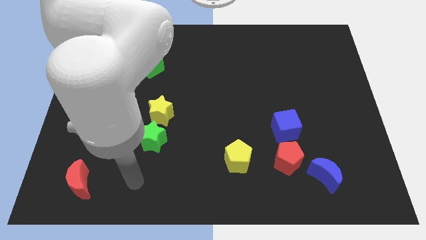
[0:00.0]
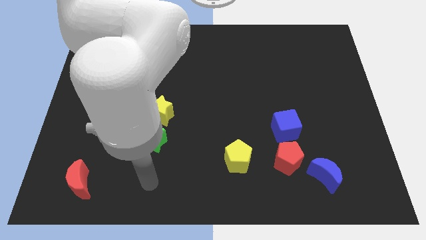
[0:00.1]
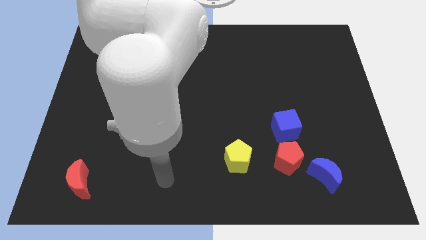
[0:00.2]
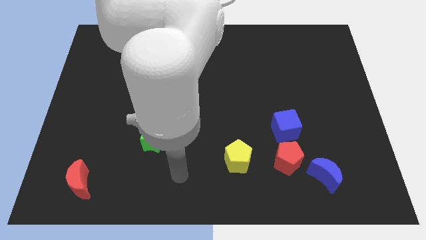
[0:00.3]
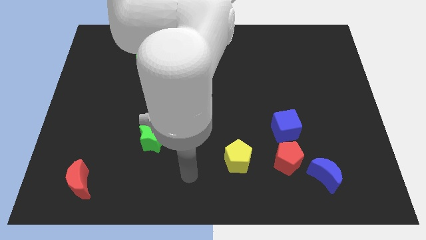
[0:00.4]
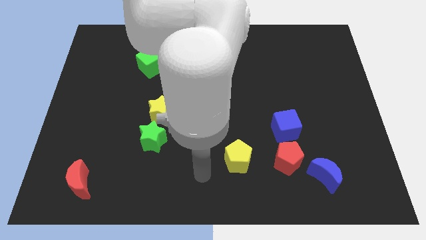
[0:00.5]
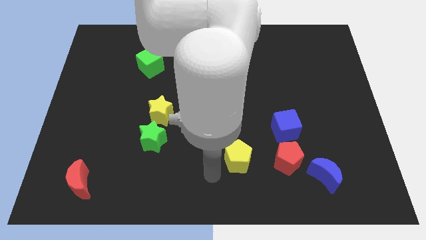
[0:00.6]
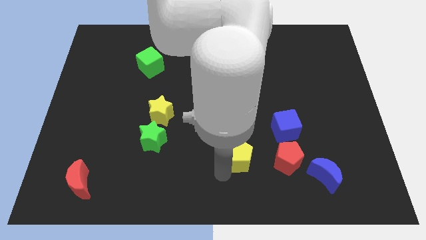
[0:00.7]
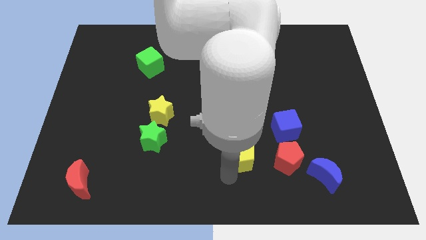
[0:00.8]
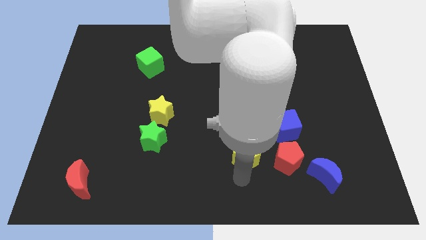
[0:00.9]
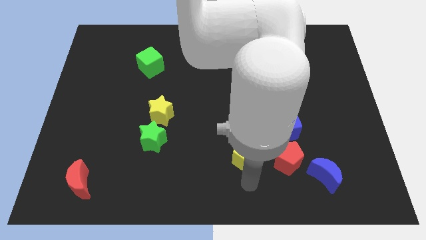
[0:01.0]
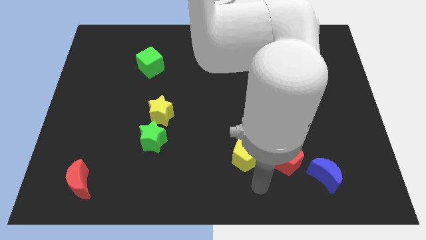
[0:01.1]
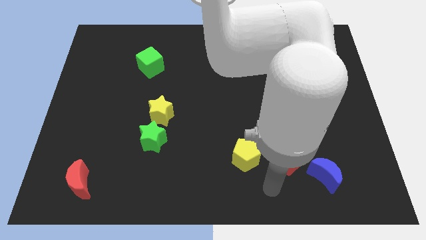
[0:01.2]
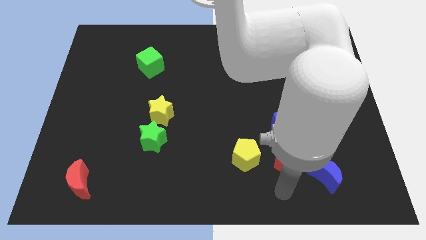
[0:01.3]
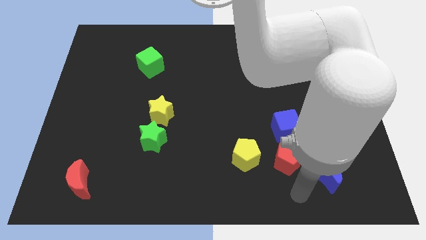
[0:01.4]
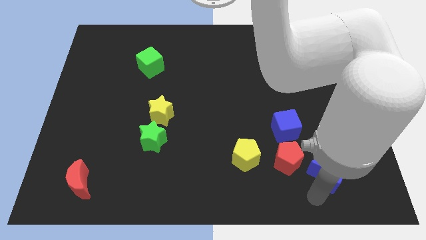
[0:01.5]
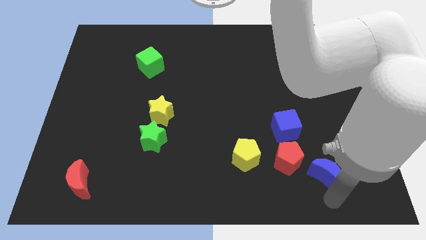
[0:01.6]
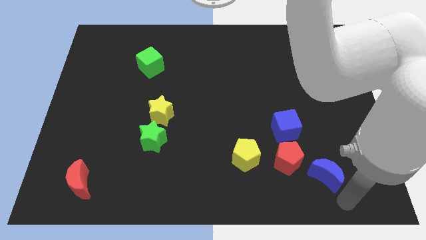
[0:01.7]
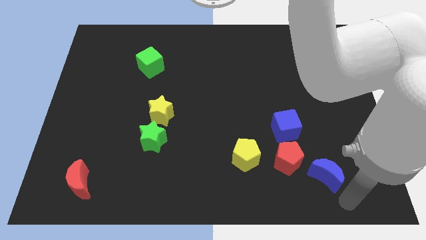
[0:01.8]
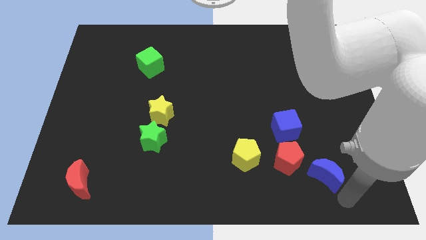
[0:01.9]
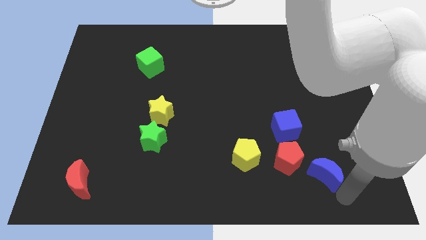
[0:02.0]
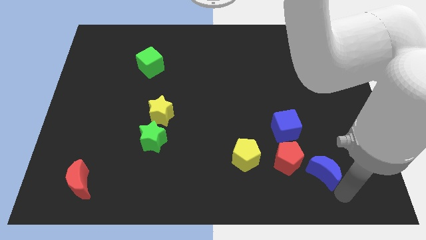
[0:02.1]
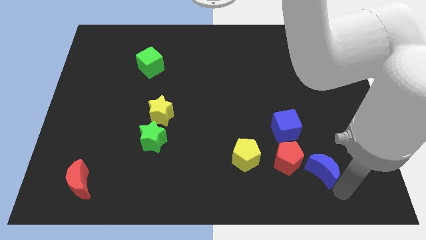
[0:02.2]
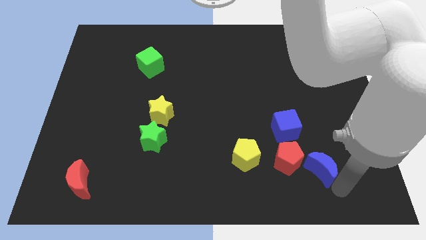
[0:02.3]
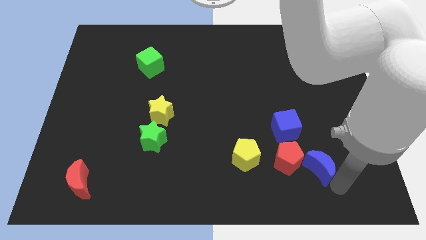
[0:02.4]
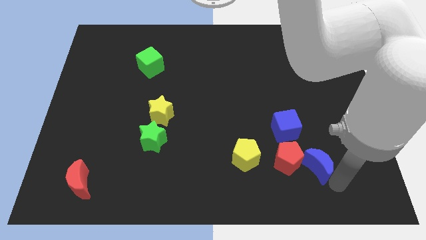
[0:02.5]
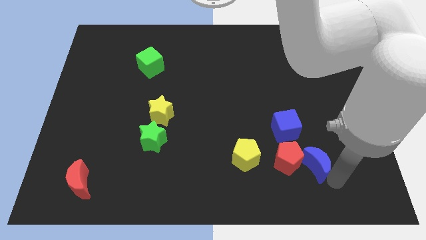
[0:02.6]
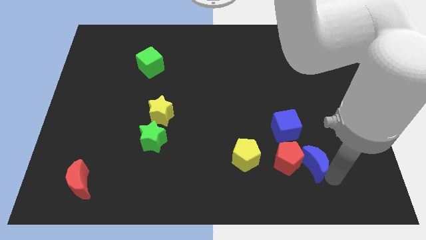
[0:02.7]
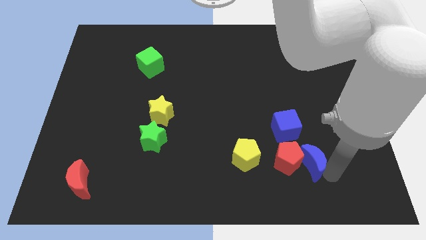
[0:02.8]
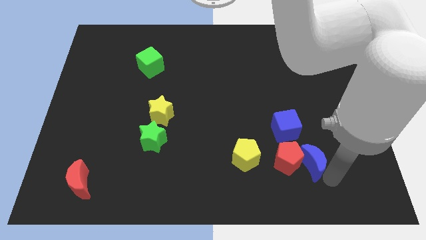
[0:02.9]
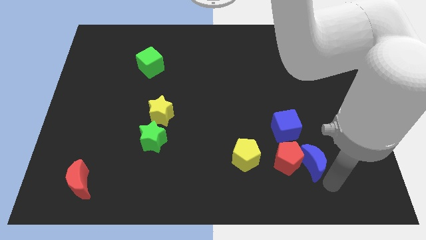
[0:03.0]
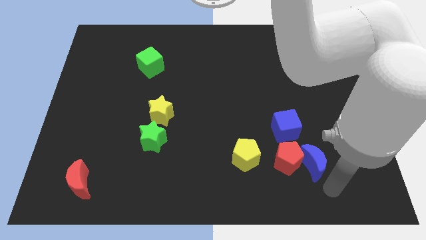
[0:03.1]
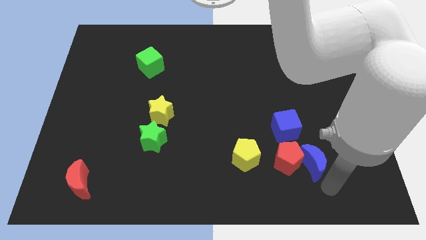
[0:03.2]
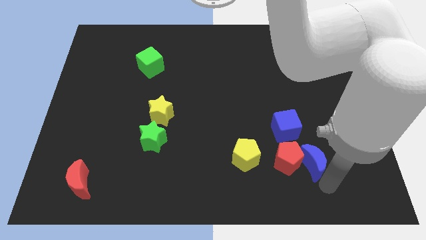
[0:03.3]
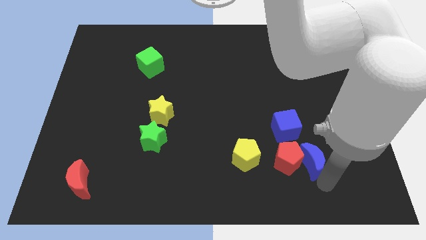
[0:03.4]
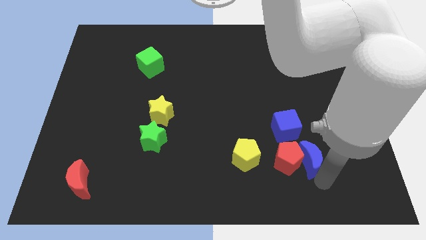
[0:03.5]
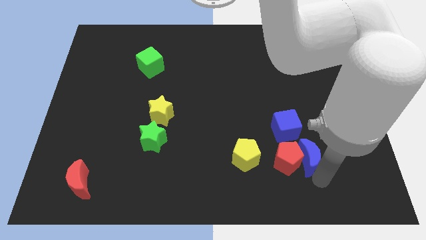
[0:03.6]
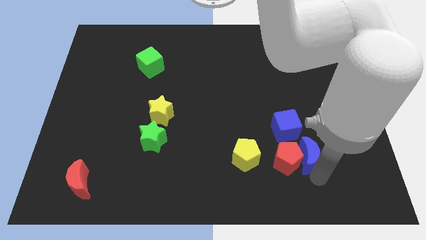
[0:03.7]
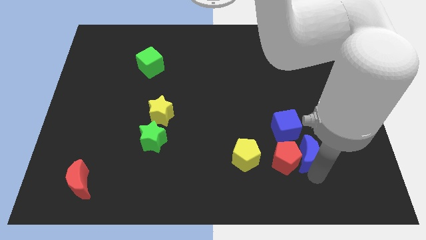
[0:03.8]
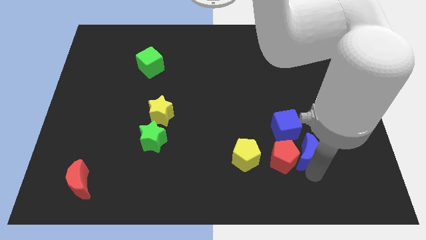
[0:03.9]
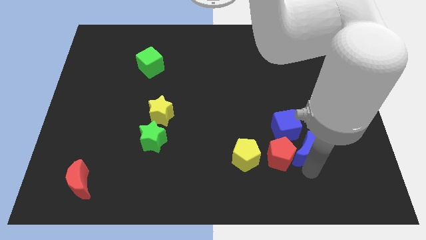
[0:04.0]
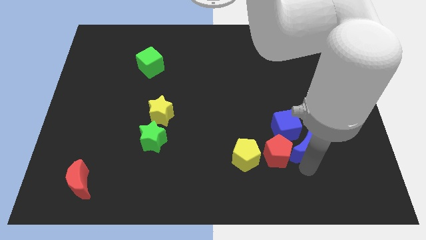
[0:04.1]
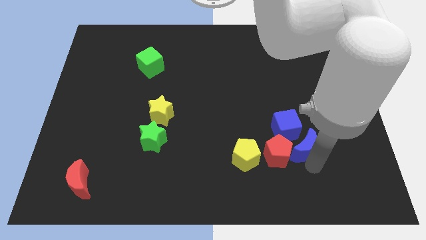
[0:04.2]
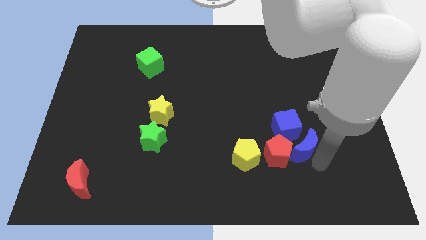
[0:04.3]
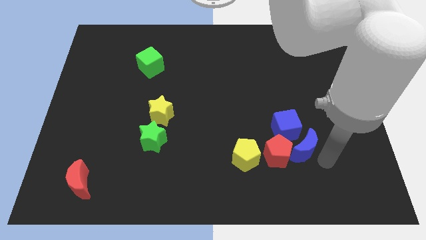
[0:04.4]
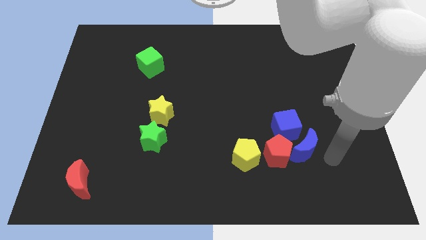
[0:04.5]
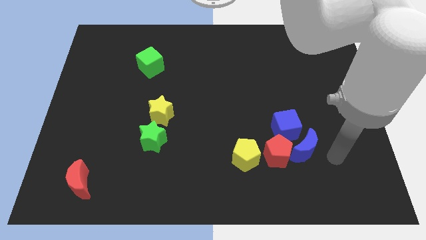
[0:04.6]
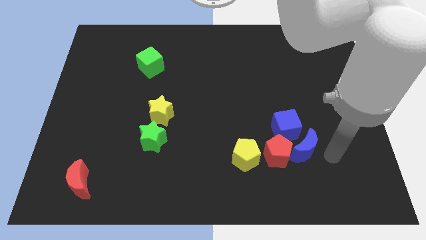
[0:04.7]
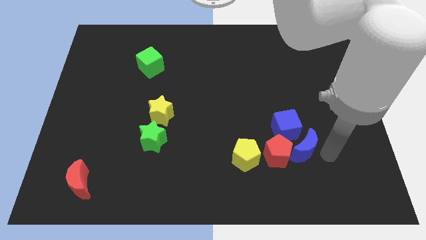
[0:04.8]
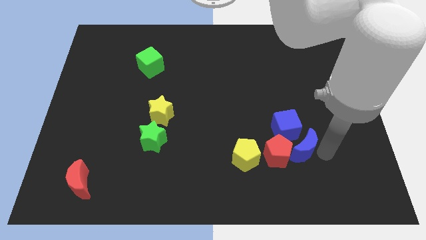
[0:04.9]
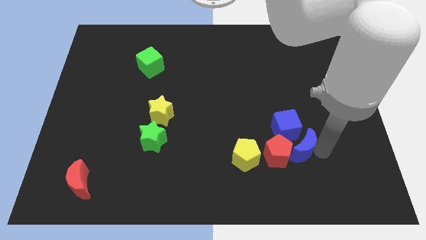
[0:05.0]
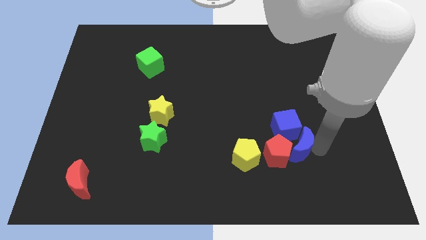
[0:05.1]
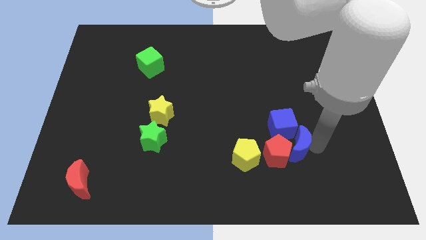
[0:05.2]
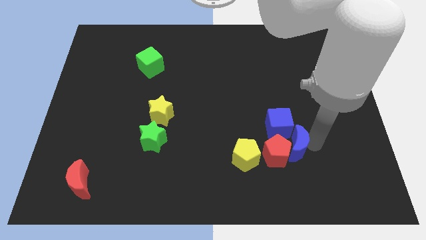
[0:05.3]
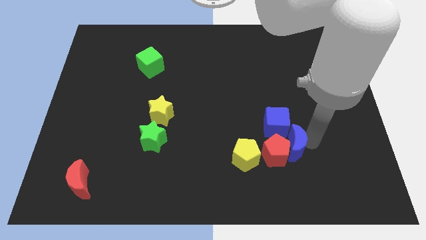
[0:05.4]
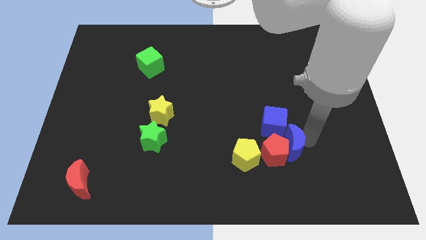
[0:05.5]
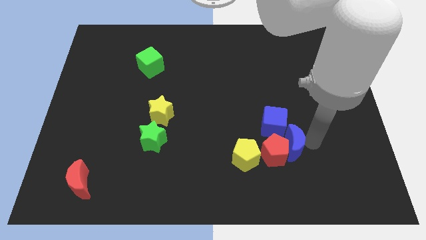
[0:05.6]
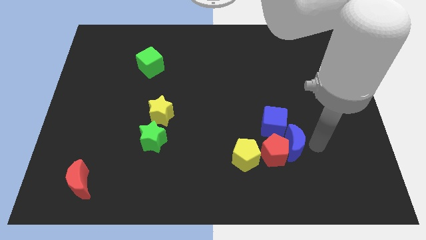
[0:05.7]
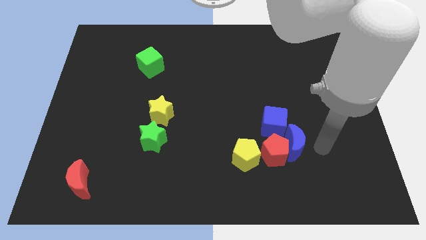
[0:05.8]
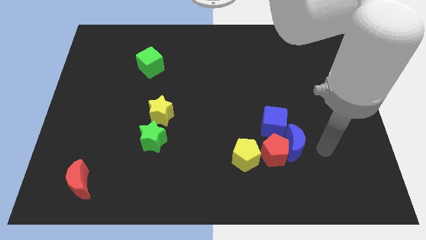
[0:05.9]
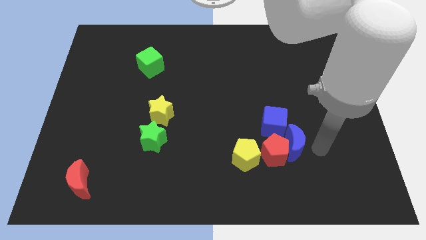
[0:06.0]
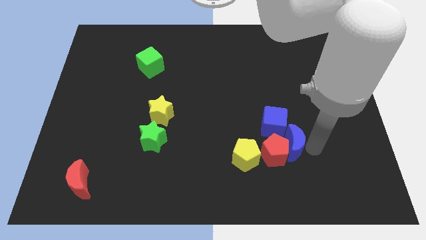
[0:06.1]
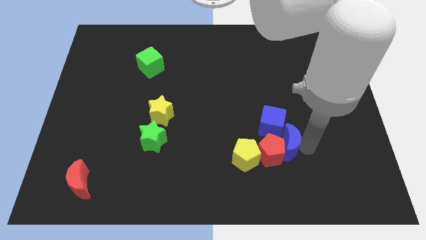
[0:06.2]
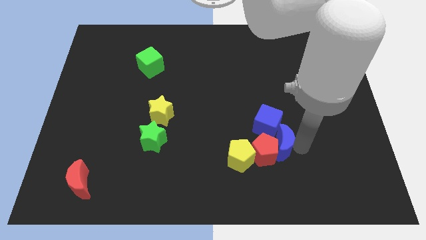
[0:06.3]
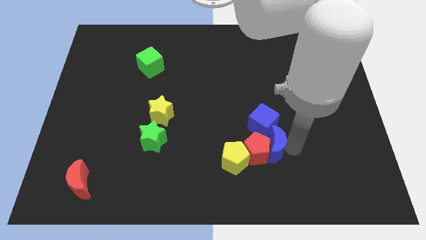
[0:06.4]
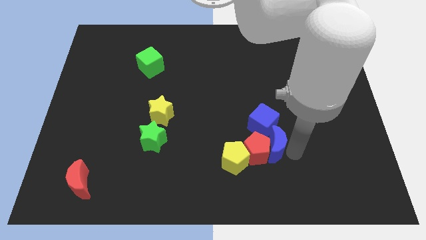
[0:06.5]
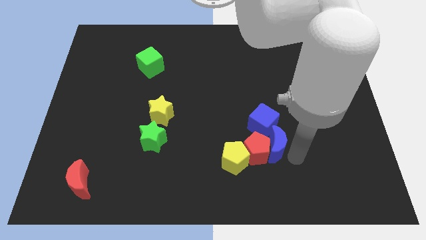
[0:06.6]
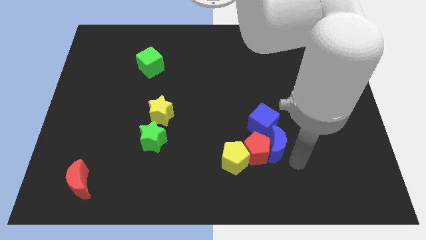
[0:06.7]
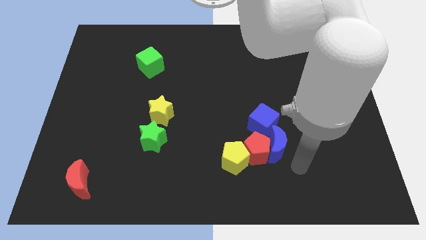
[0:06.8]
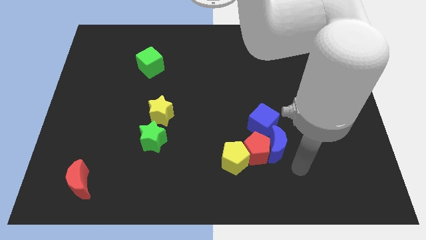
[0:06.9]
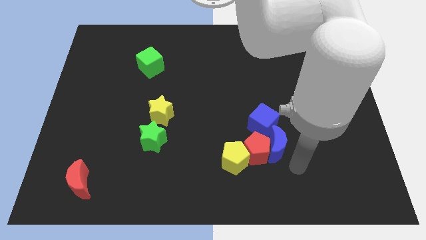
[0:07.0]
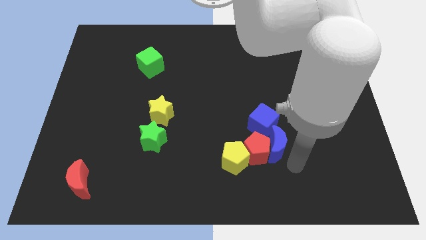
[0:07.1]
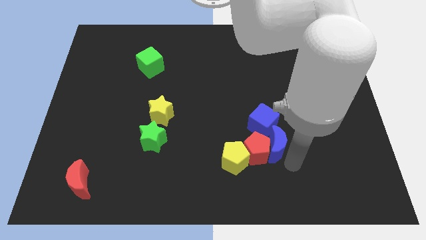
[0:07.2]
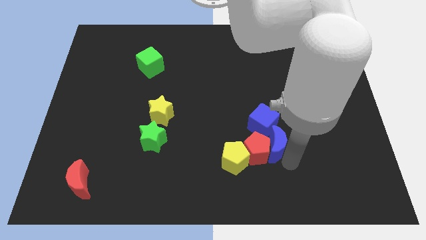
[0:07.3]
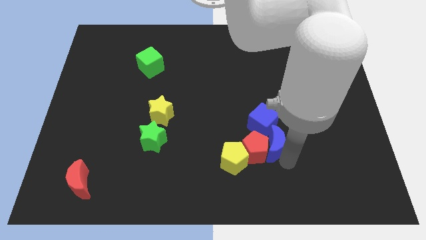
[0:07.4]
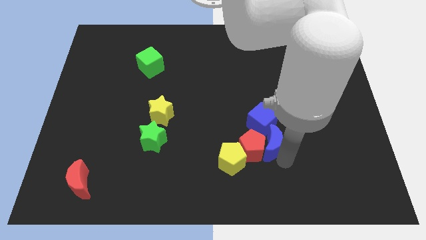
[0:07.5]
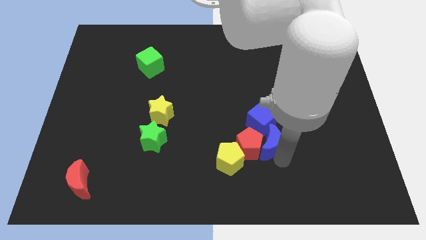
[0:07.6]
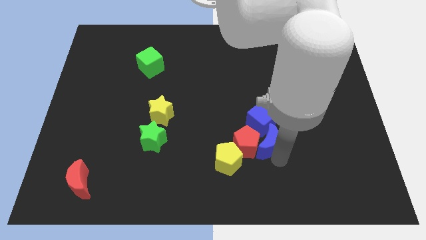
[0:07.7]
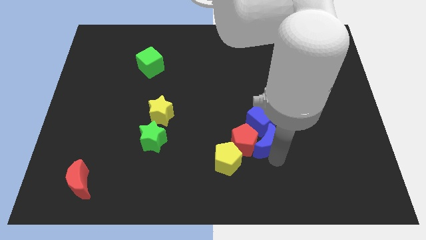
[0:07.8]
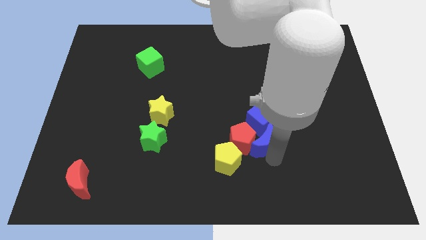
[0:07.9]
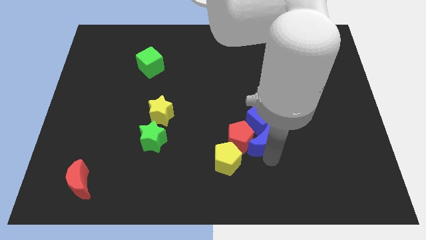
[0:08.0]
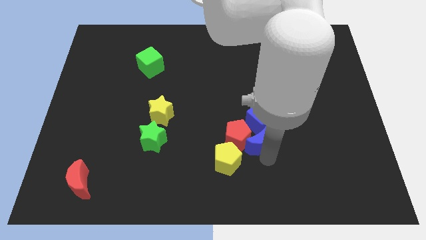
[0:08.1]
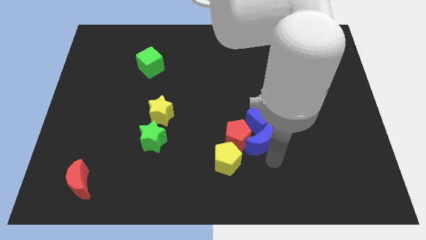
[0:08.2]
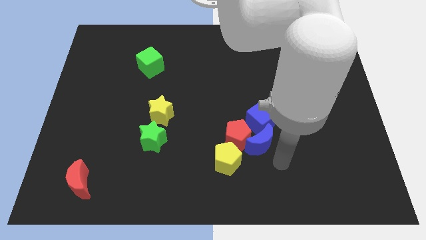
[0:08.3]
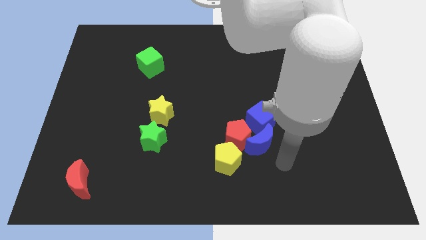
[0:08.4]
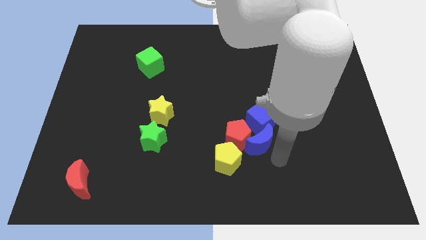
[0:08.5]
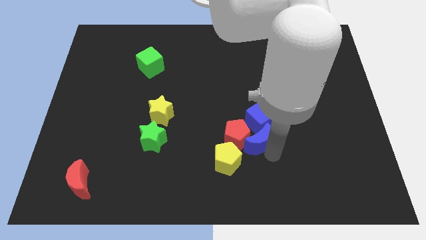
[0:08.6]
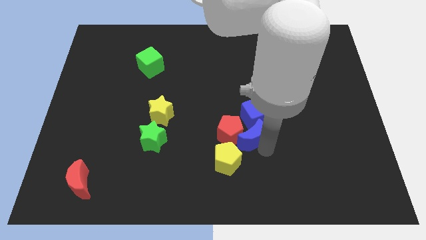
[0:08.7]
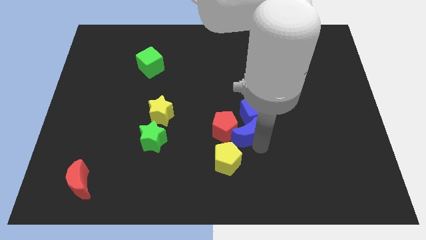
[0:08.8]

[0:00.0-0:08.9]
put the blue moon to the middle of the board
